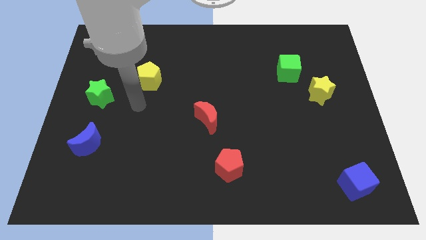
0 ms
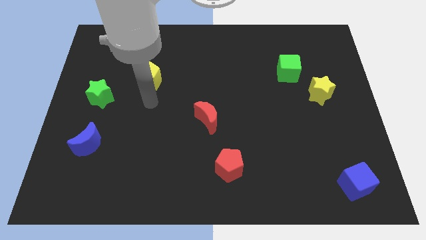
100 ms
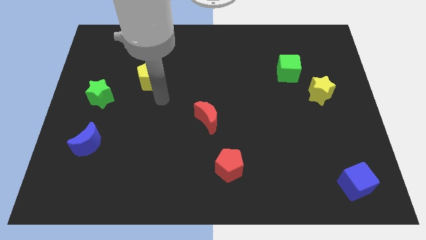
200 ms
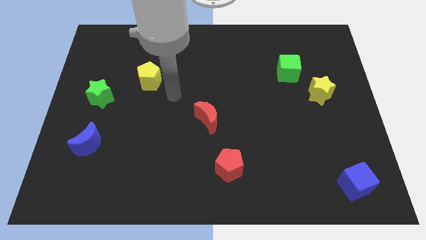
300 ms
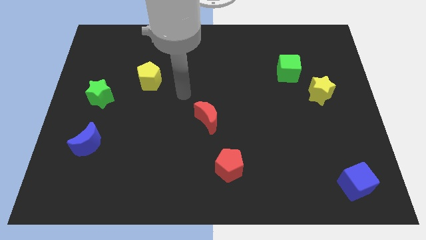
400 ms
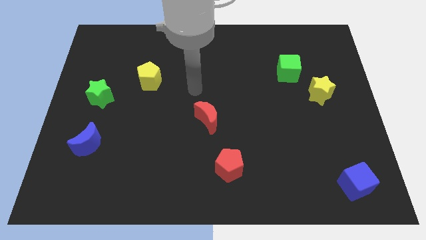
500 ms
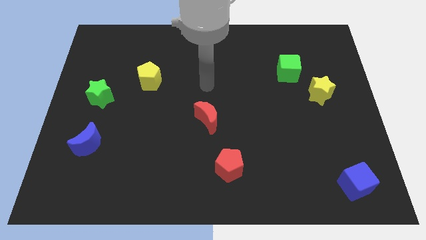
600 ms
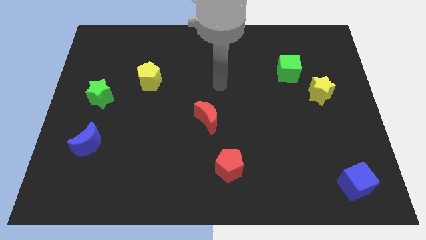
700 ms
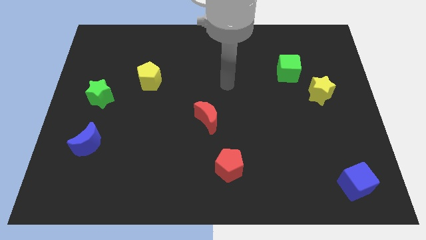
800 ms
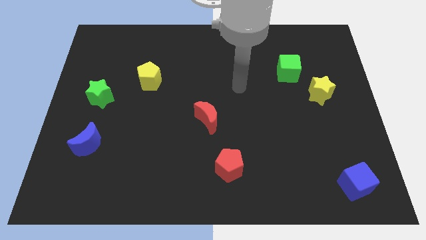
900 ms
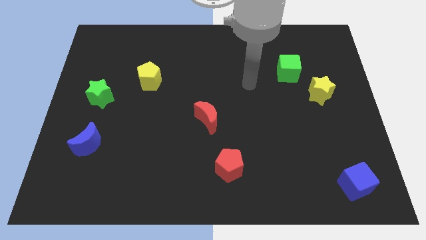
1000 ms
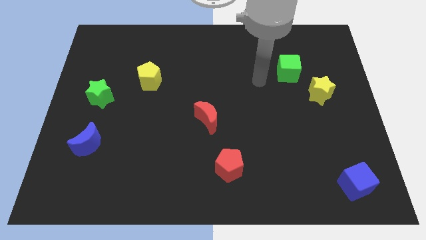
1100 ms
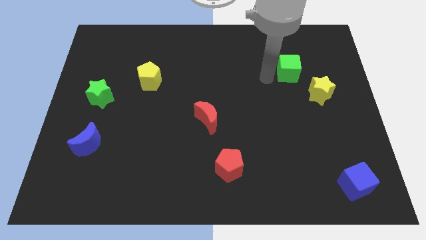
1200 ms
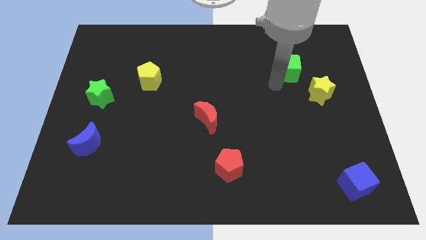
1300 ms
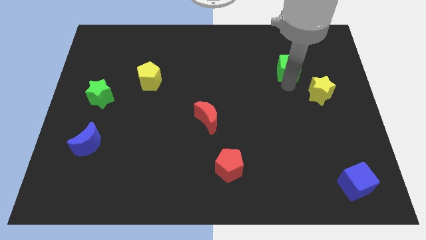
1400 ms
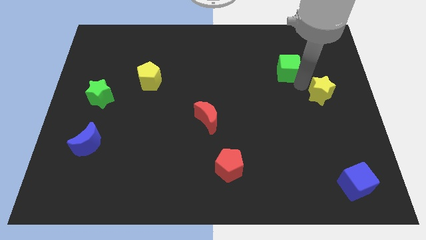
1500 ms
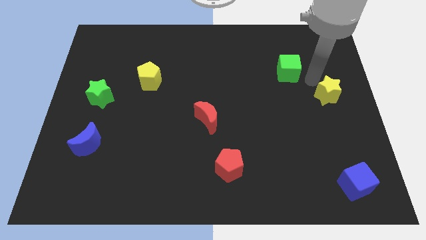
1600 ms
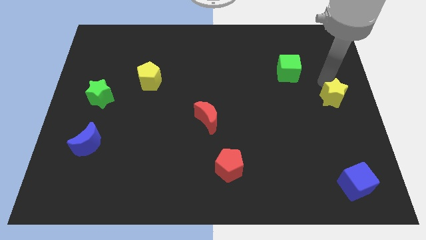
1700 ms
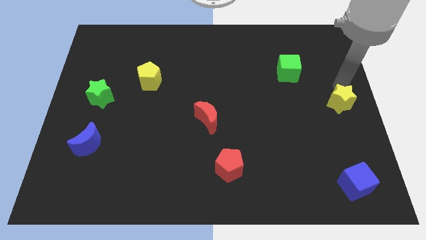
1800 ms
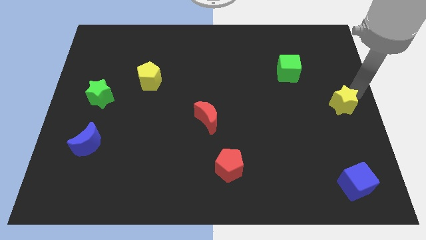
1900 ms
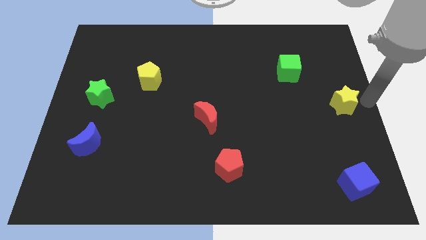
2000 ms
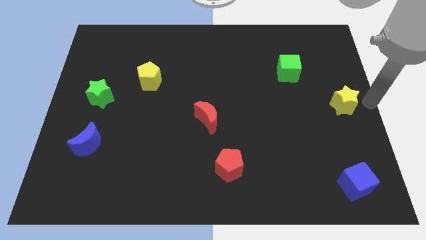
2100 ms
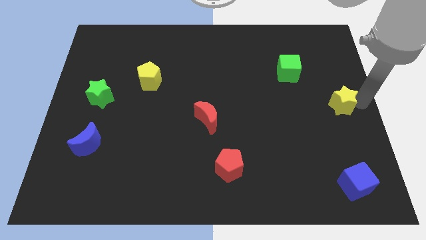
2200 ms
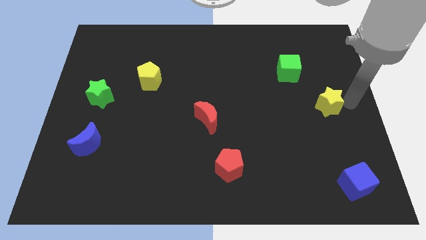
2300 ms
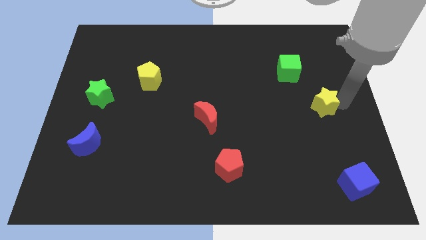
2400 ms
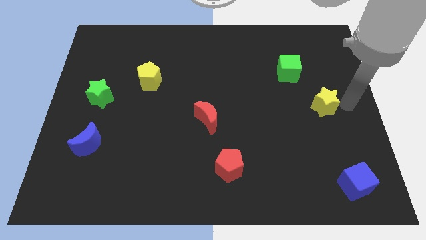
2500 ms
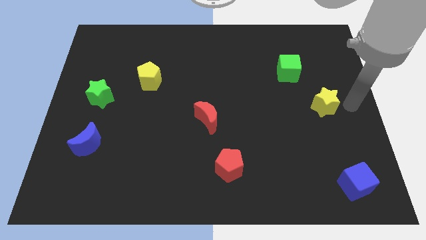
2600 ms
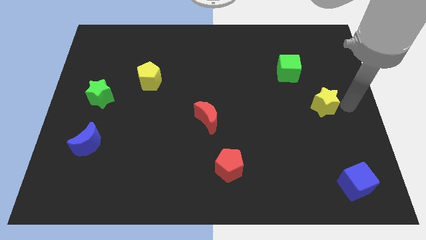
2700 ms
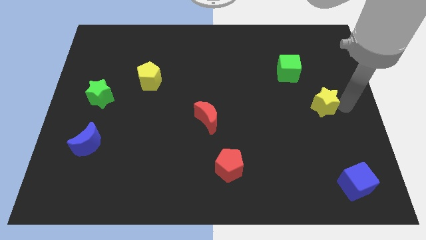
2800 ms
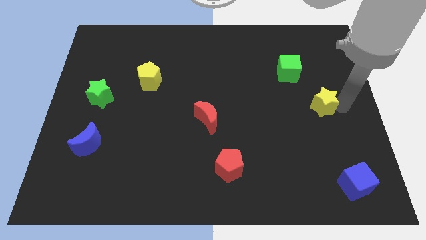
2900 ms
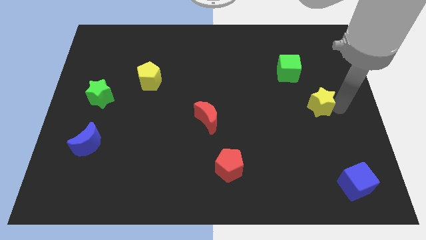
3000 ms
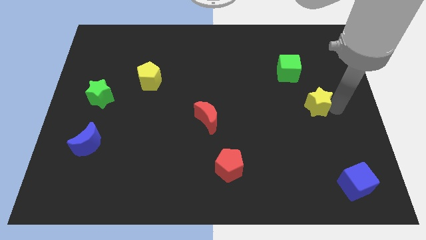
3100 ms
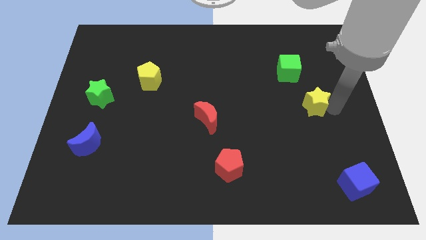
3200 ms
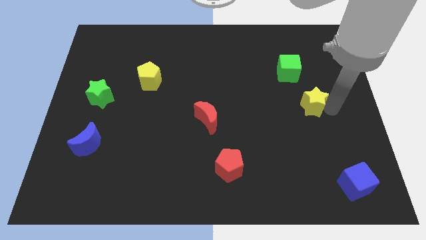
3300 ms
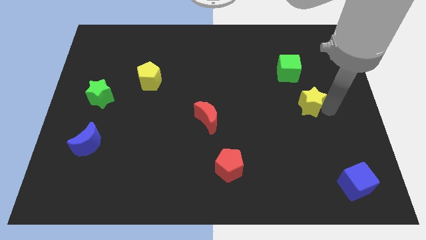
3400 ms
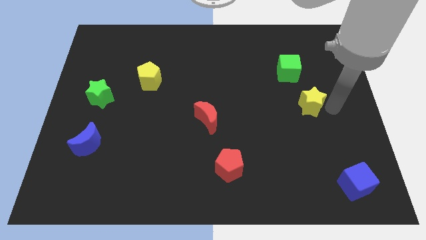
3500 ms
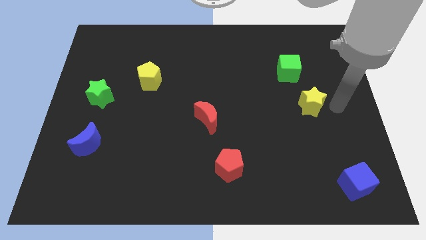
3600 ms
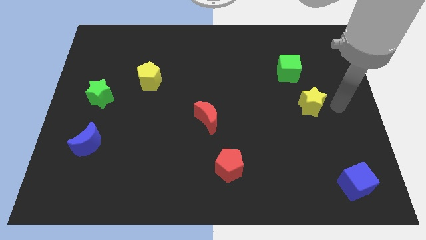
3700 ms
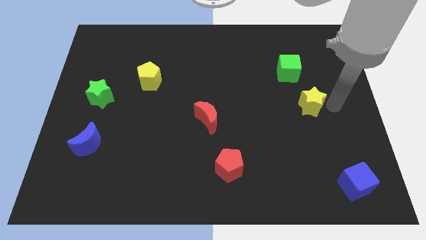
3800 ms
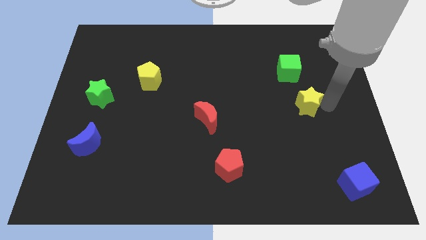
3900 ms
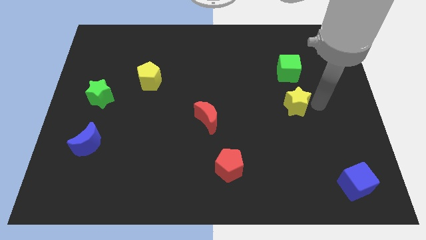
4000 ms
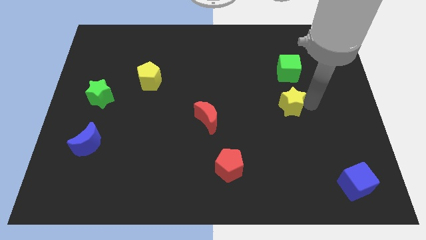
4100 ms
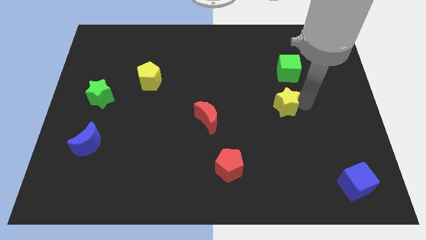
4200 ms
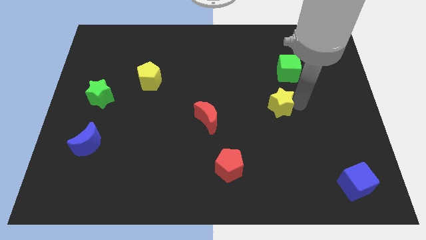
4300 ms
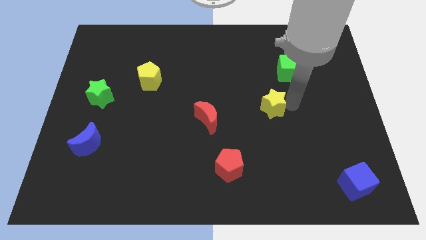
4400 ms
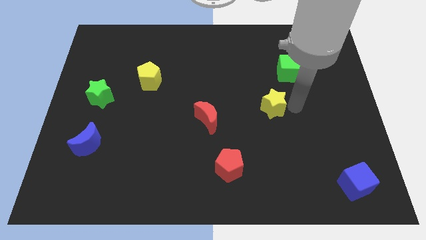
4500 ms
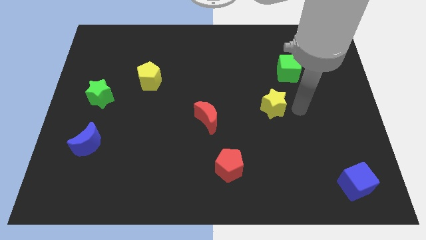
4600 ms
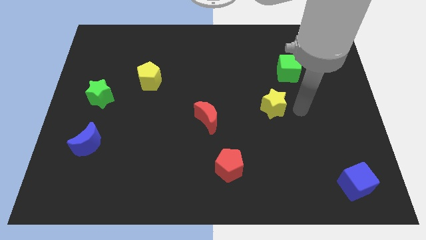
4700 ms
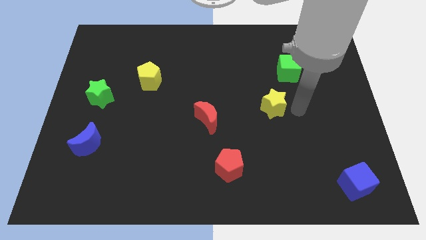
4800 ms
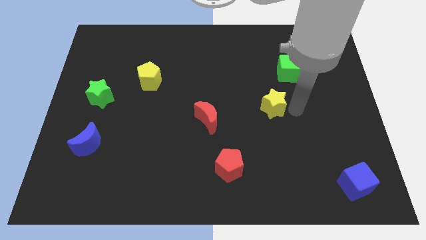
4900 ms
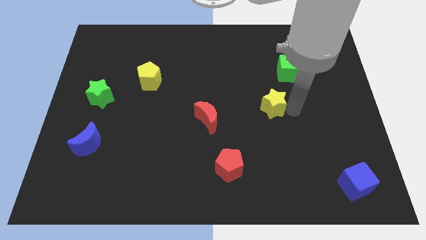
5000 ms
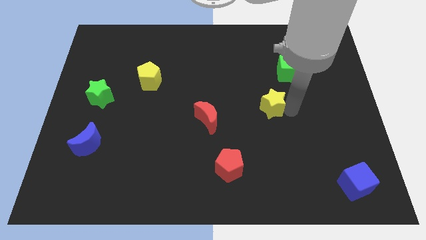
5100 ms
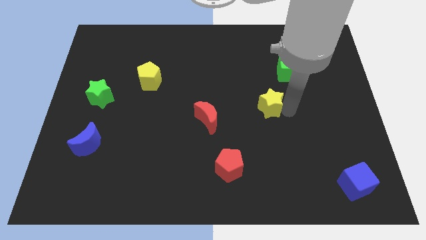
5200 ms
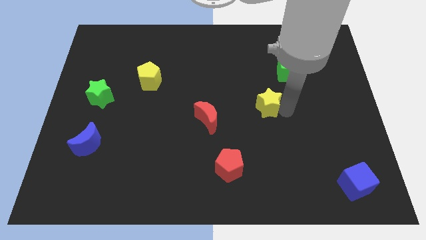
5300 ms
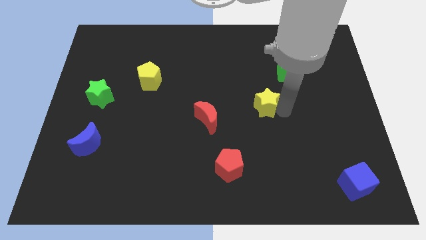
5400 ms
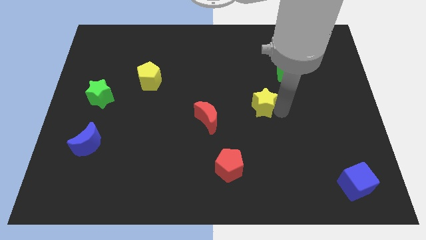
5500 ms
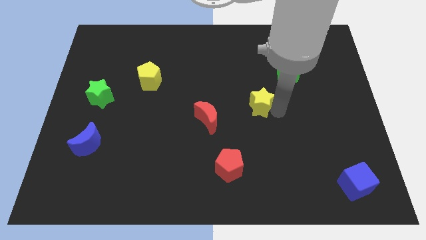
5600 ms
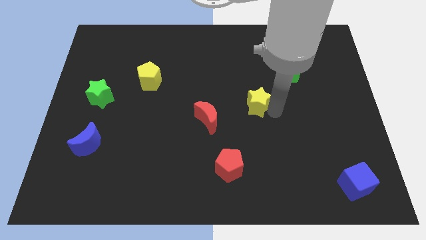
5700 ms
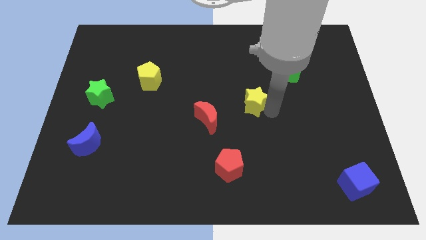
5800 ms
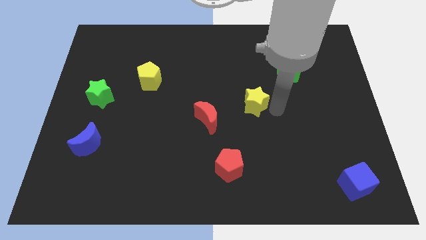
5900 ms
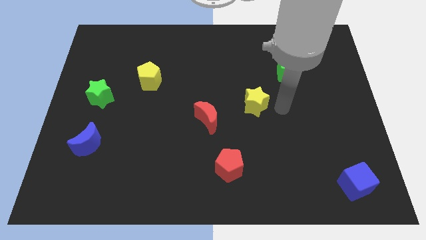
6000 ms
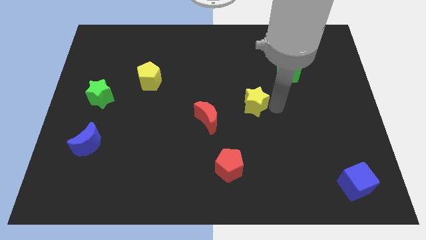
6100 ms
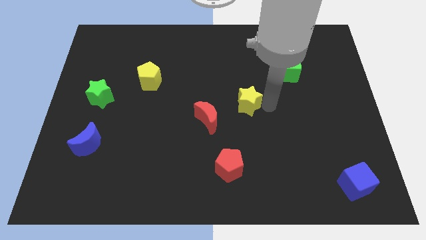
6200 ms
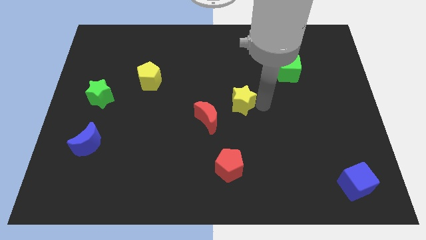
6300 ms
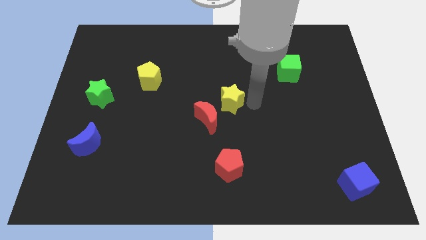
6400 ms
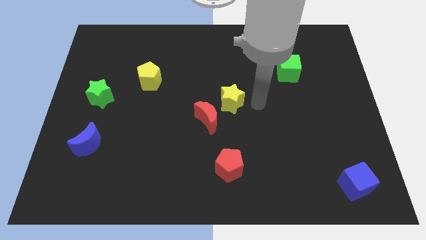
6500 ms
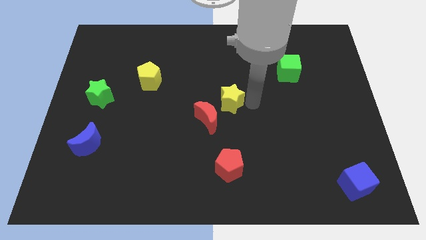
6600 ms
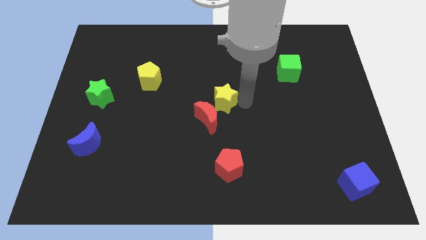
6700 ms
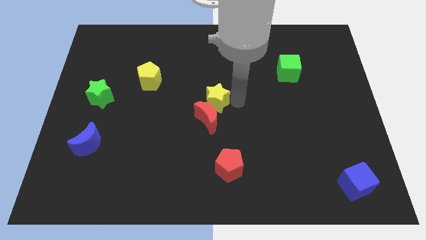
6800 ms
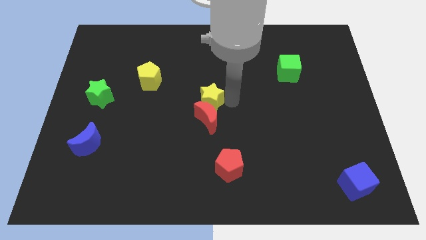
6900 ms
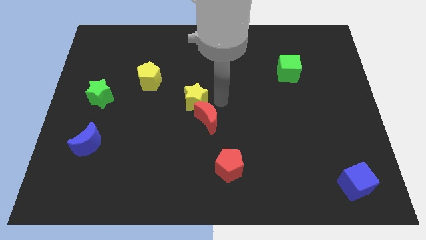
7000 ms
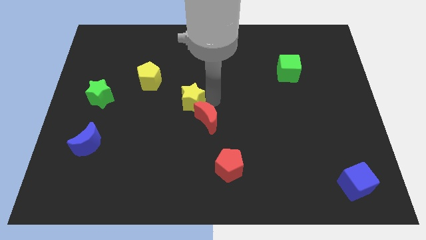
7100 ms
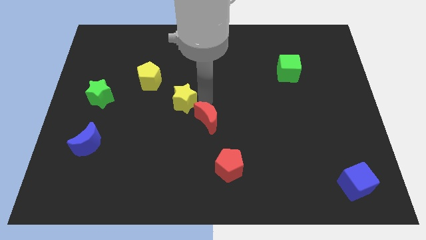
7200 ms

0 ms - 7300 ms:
move the yellow star to the bottom right side of the yellow pentagon

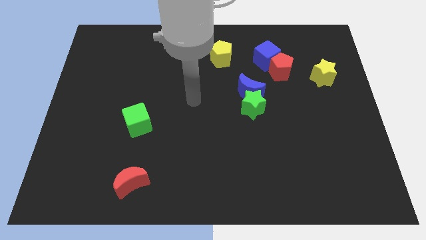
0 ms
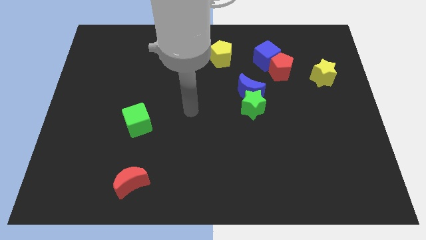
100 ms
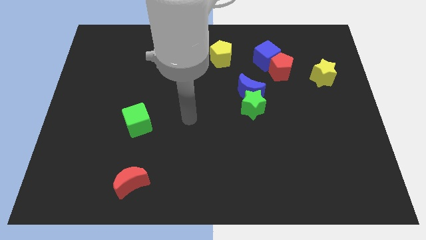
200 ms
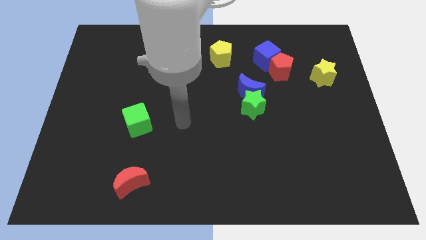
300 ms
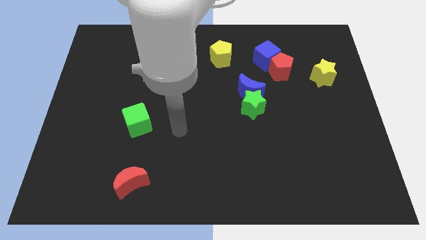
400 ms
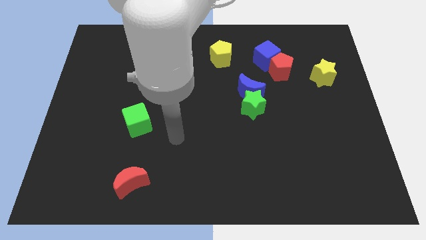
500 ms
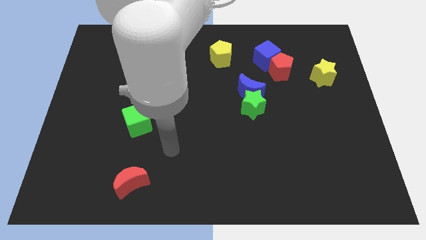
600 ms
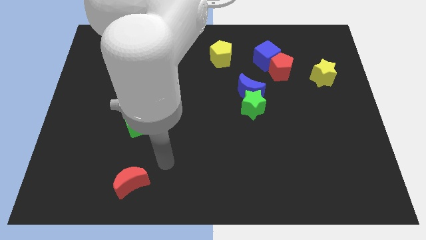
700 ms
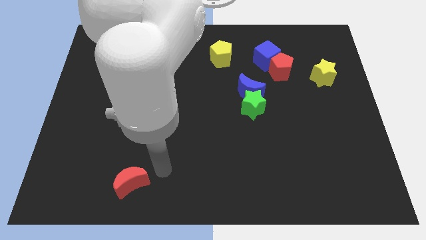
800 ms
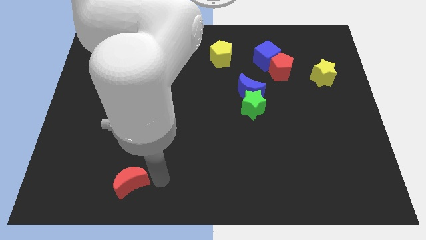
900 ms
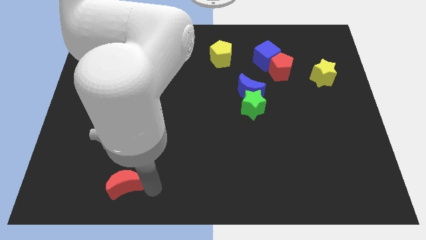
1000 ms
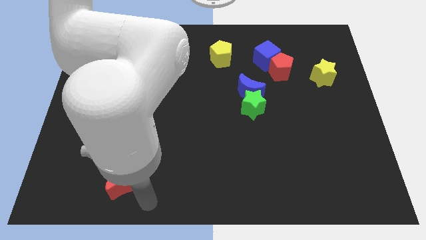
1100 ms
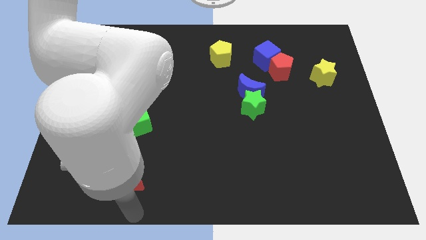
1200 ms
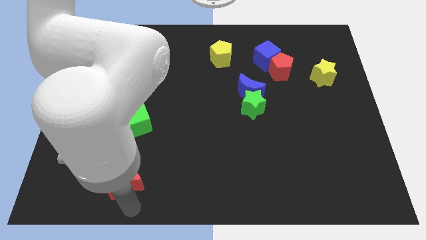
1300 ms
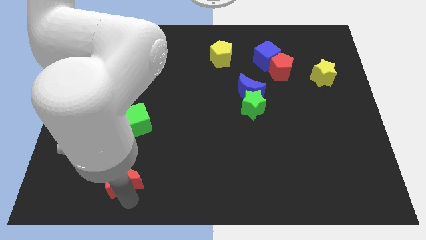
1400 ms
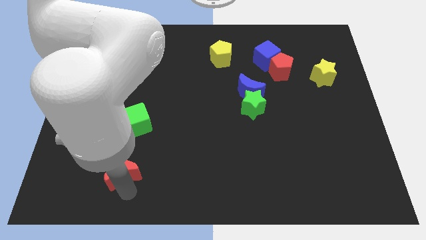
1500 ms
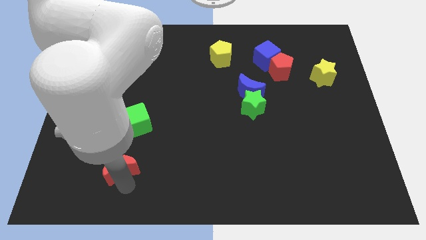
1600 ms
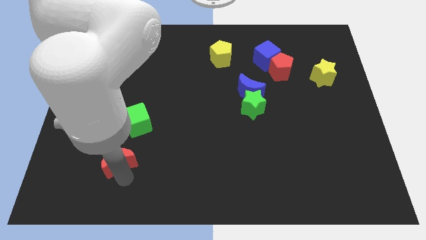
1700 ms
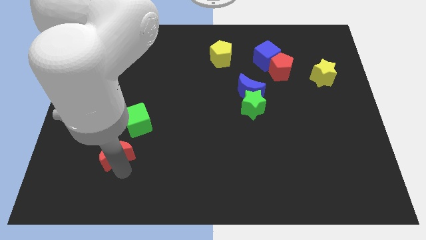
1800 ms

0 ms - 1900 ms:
slide the red moon to the bottom left of the green cube
